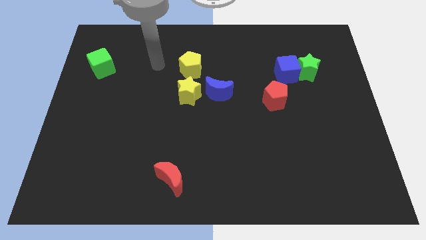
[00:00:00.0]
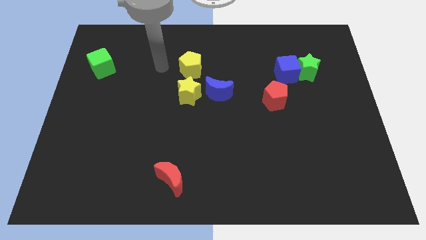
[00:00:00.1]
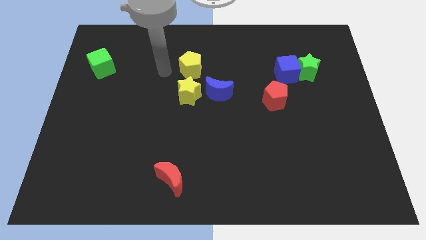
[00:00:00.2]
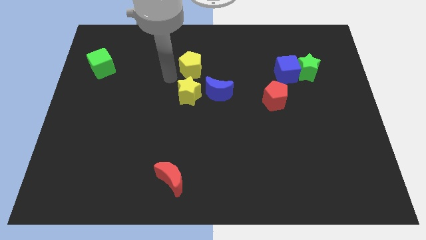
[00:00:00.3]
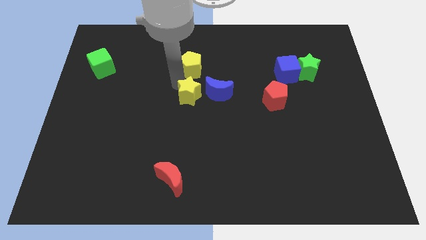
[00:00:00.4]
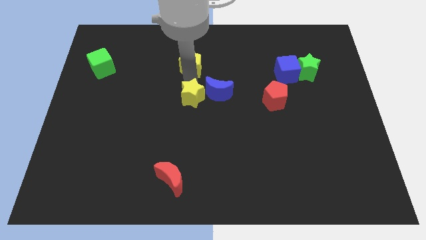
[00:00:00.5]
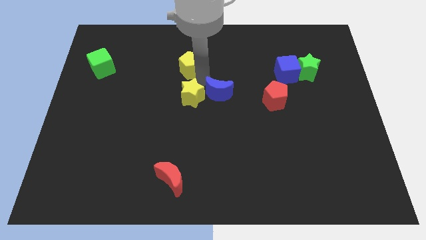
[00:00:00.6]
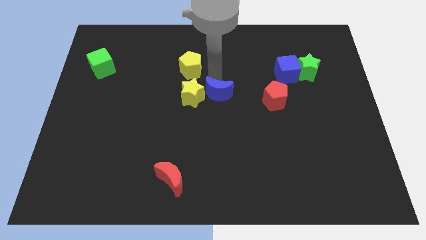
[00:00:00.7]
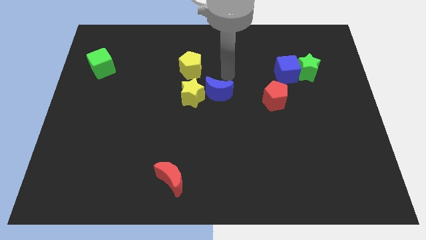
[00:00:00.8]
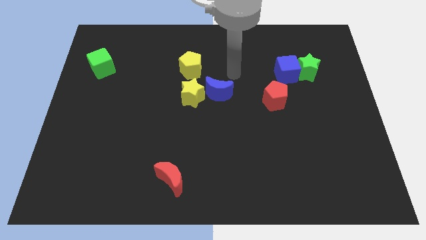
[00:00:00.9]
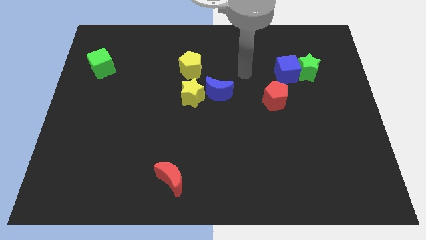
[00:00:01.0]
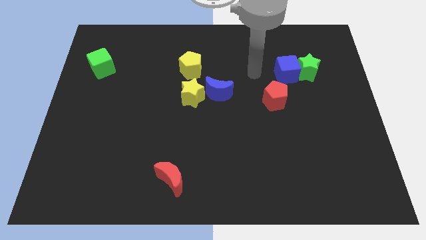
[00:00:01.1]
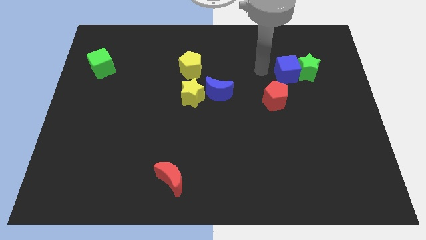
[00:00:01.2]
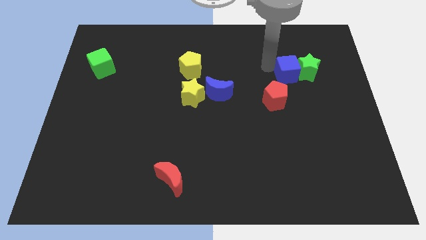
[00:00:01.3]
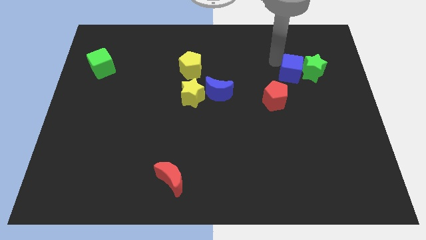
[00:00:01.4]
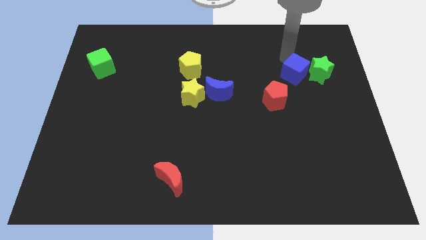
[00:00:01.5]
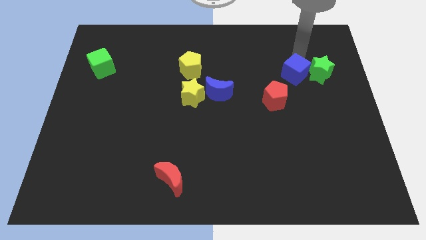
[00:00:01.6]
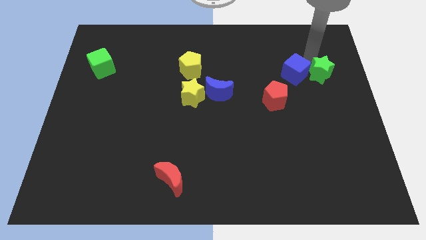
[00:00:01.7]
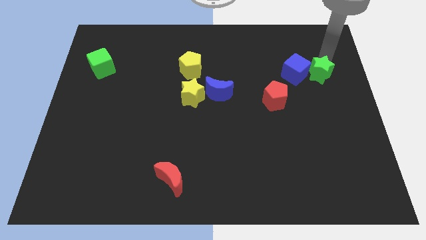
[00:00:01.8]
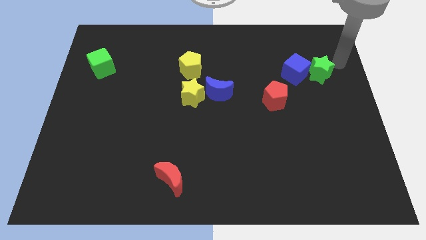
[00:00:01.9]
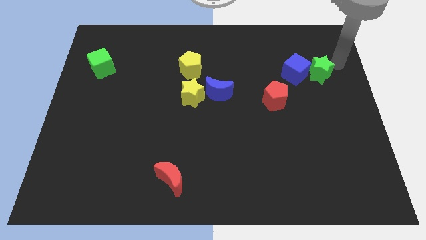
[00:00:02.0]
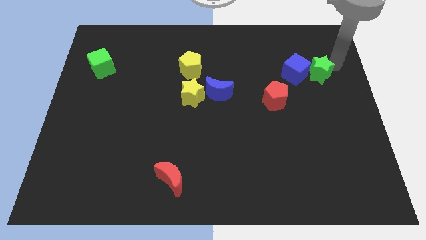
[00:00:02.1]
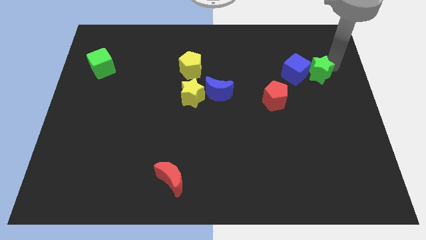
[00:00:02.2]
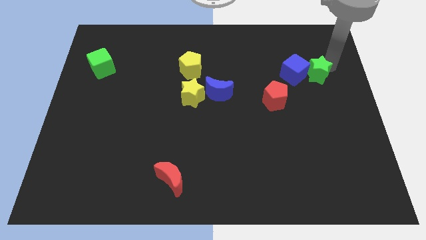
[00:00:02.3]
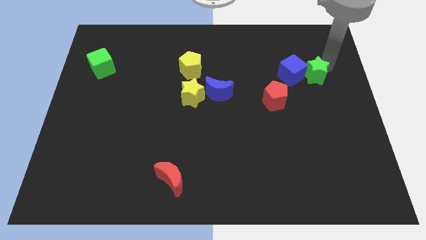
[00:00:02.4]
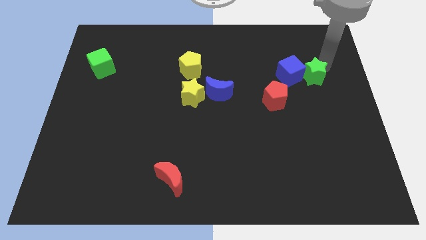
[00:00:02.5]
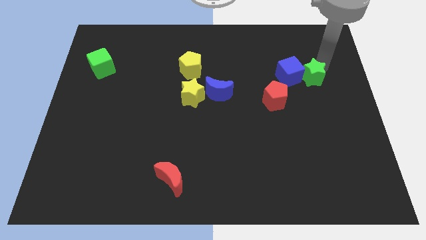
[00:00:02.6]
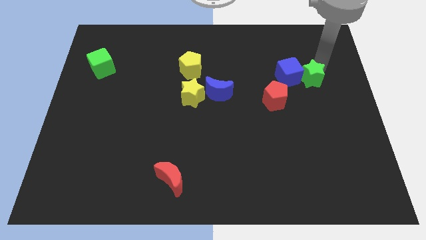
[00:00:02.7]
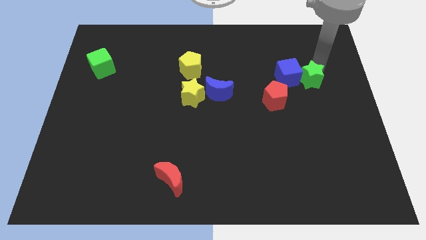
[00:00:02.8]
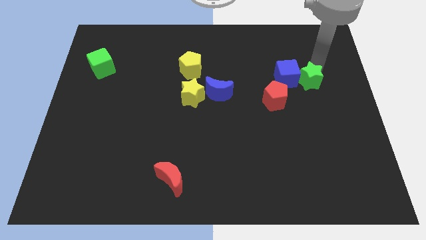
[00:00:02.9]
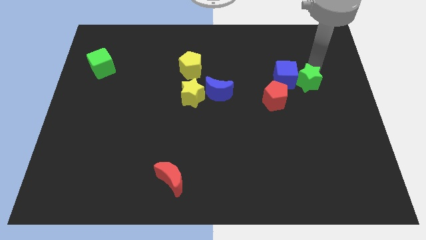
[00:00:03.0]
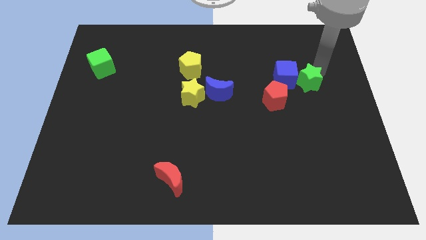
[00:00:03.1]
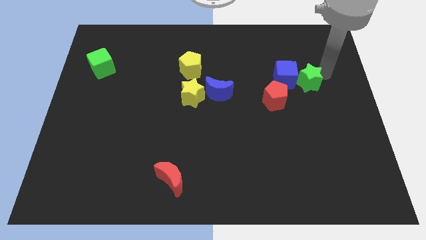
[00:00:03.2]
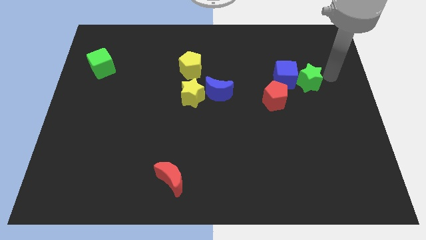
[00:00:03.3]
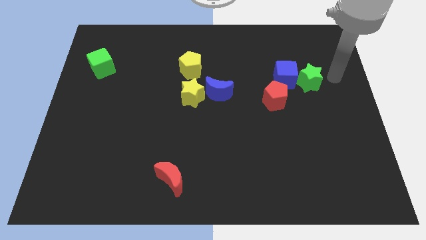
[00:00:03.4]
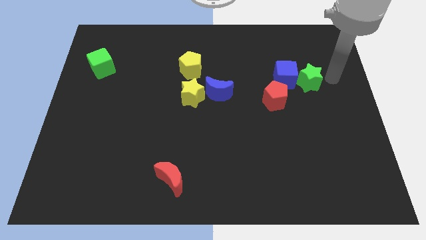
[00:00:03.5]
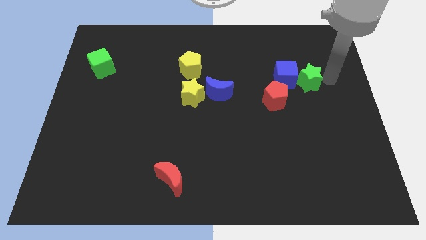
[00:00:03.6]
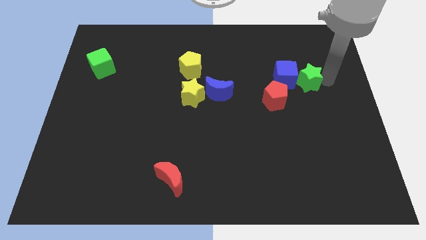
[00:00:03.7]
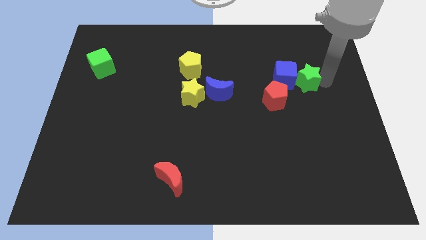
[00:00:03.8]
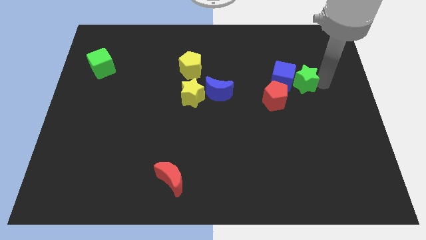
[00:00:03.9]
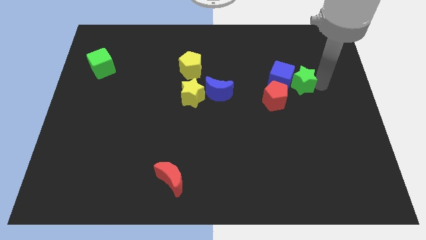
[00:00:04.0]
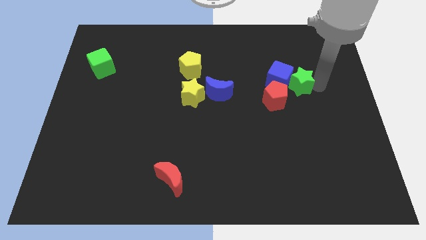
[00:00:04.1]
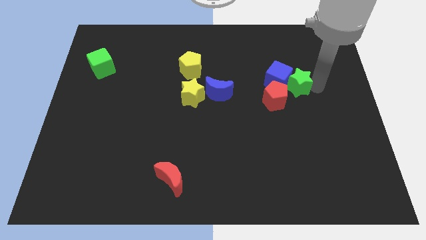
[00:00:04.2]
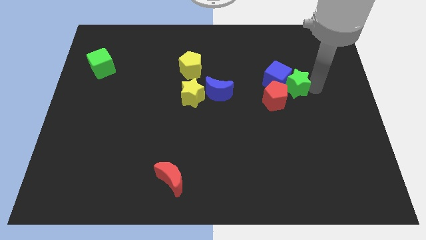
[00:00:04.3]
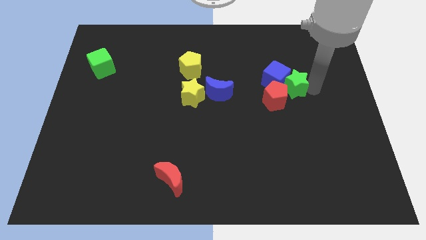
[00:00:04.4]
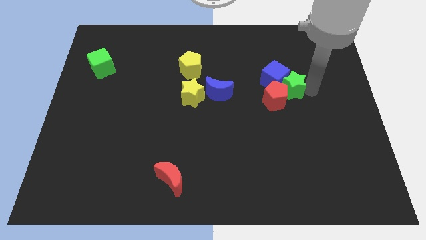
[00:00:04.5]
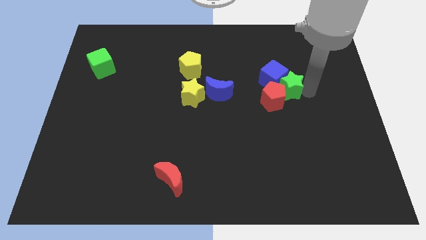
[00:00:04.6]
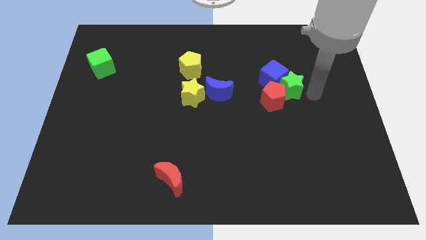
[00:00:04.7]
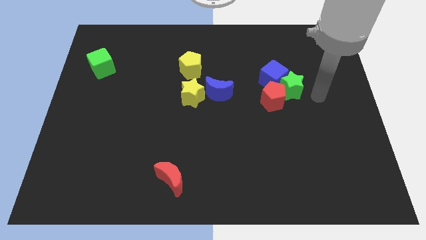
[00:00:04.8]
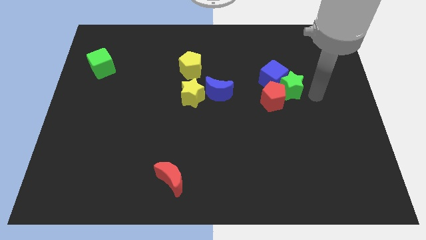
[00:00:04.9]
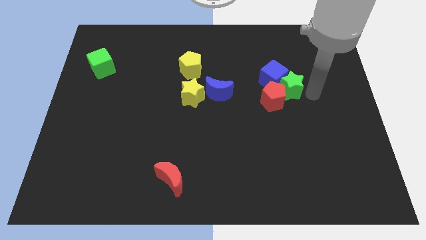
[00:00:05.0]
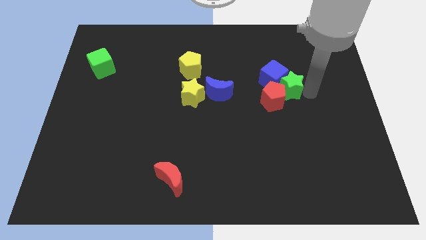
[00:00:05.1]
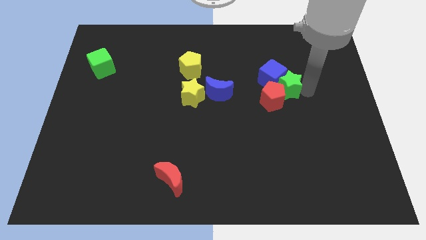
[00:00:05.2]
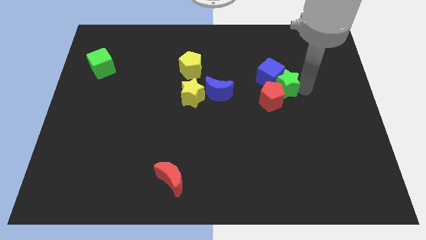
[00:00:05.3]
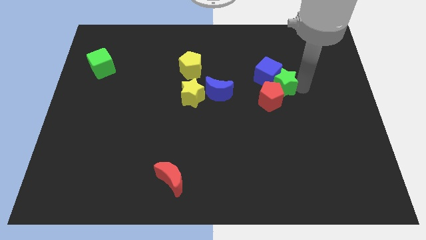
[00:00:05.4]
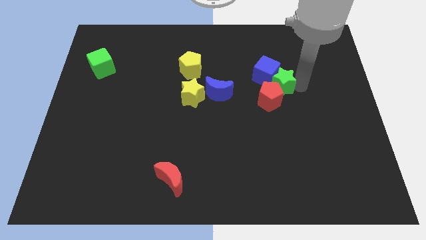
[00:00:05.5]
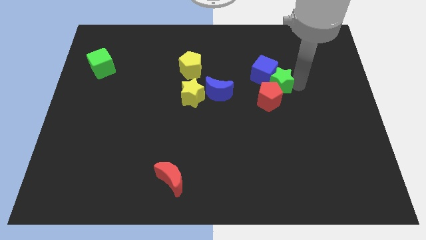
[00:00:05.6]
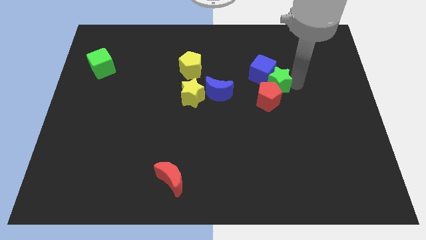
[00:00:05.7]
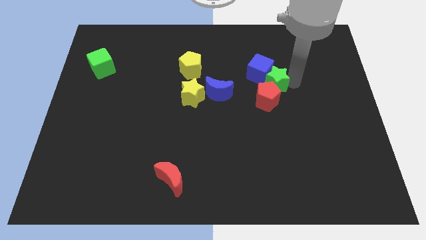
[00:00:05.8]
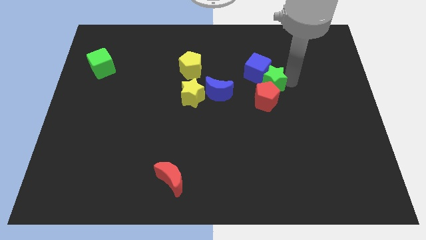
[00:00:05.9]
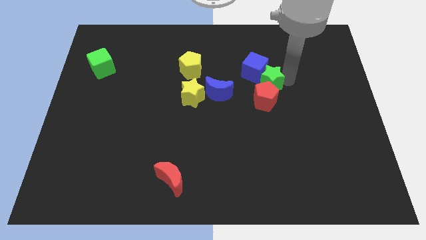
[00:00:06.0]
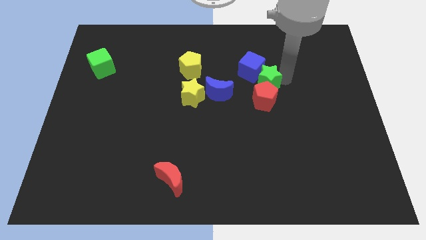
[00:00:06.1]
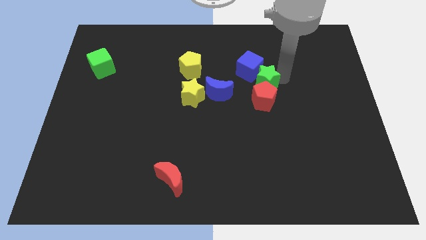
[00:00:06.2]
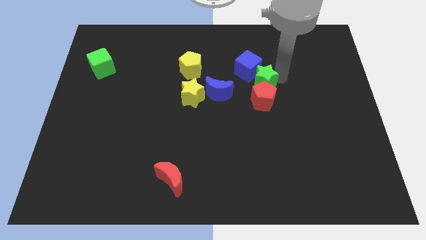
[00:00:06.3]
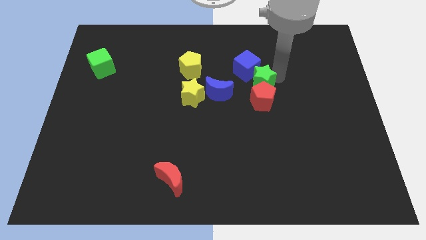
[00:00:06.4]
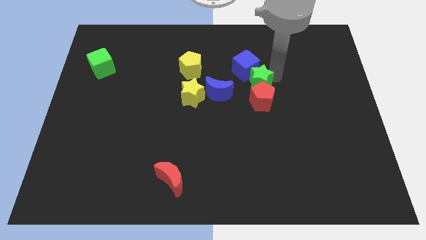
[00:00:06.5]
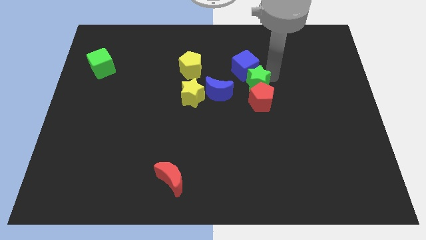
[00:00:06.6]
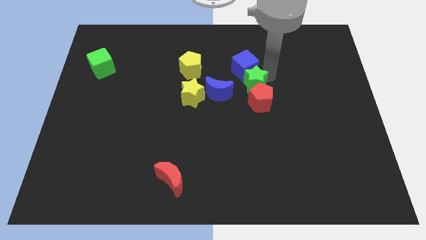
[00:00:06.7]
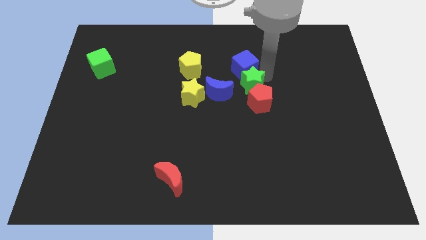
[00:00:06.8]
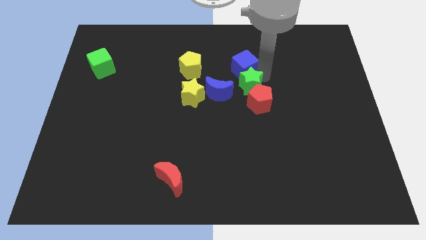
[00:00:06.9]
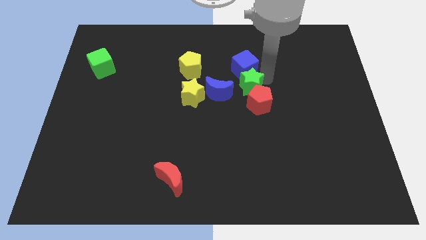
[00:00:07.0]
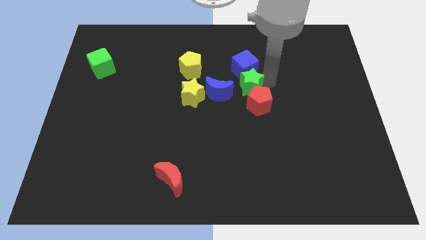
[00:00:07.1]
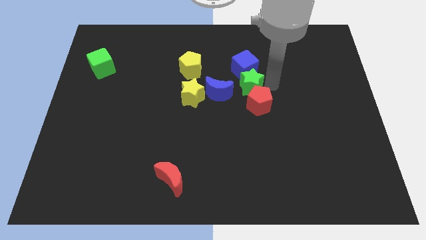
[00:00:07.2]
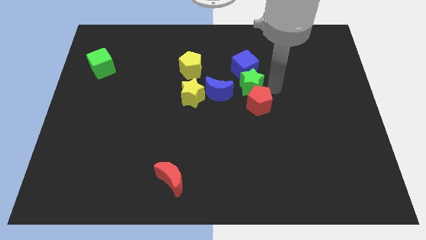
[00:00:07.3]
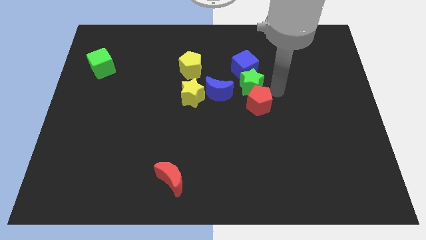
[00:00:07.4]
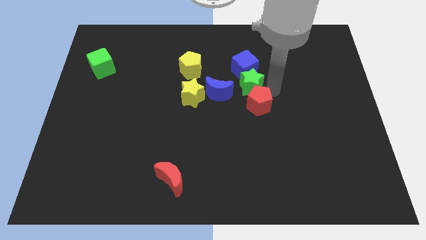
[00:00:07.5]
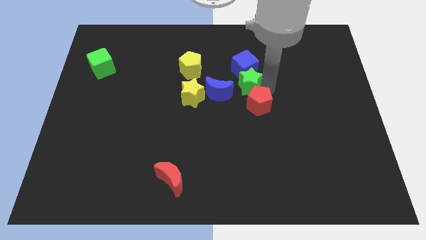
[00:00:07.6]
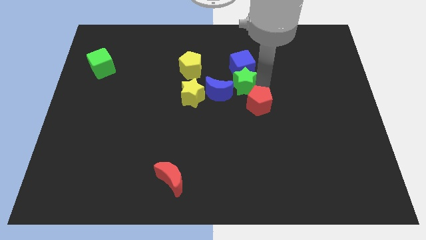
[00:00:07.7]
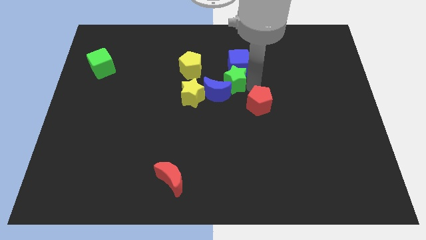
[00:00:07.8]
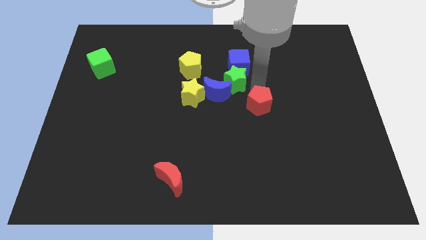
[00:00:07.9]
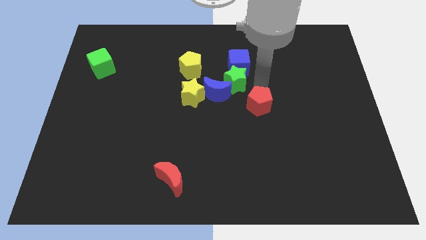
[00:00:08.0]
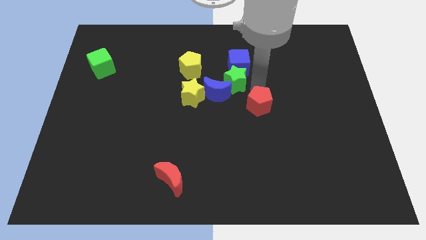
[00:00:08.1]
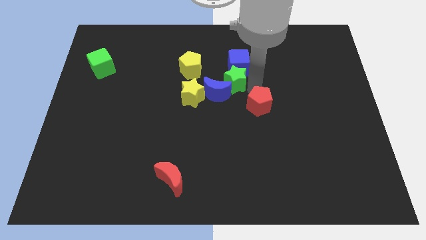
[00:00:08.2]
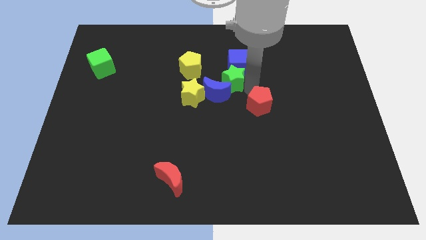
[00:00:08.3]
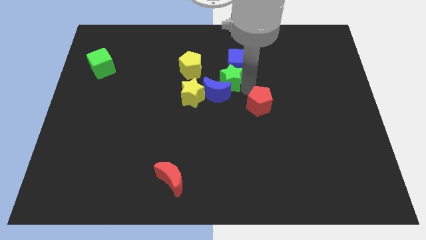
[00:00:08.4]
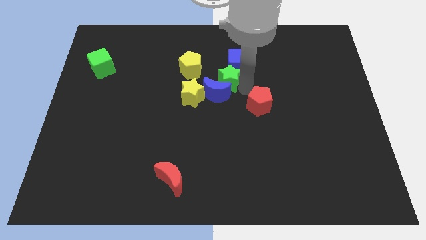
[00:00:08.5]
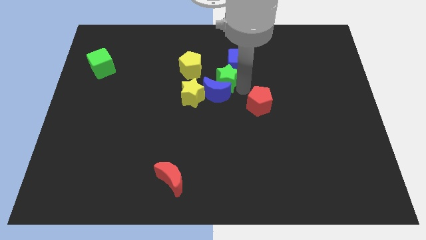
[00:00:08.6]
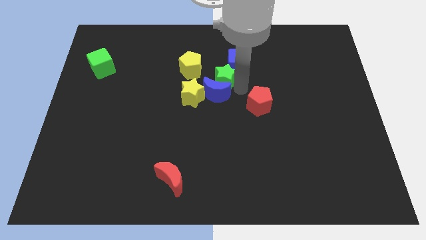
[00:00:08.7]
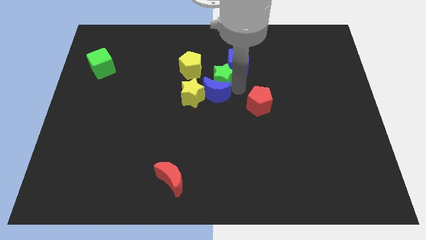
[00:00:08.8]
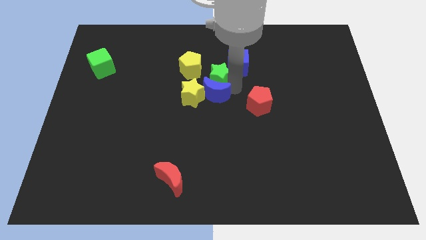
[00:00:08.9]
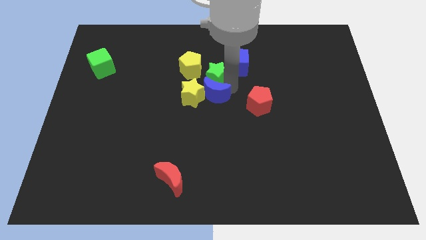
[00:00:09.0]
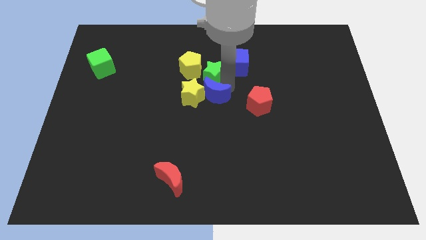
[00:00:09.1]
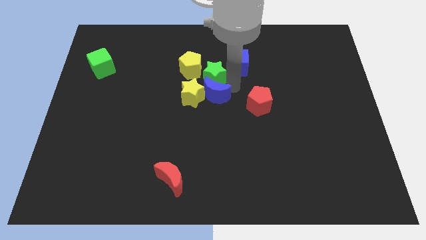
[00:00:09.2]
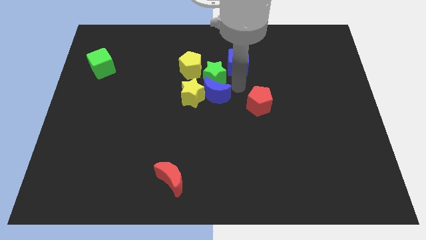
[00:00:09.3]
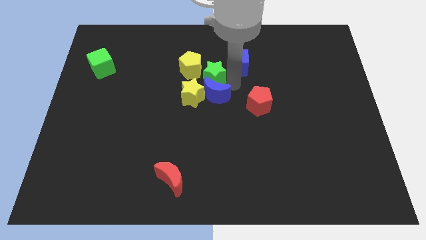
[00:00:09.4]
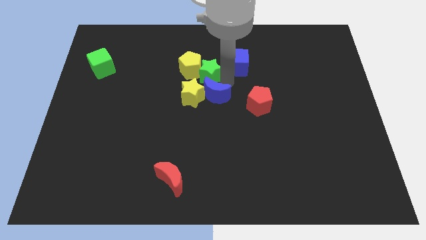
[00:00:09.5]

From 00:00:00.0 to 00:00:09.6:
slide the green star close to the yellow pentagon
